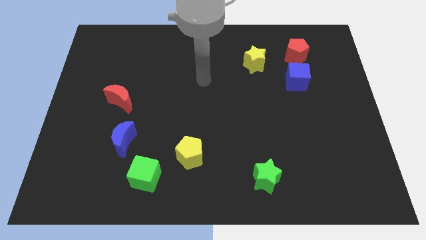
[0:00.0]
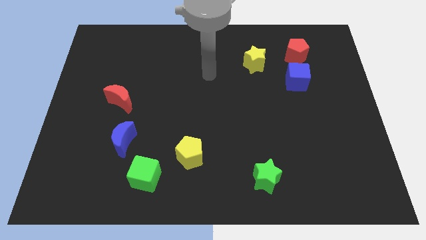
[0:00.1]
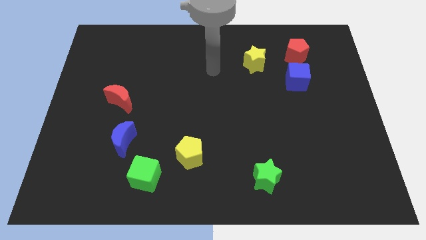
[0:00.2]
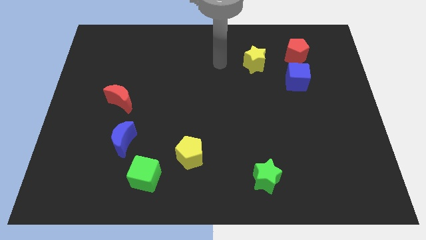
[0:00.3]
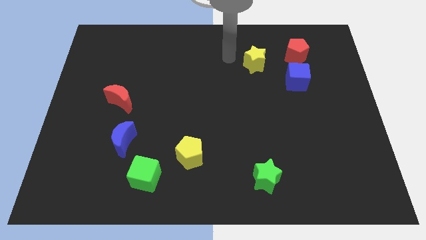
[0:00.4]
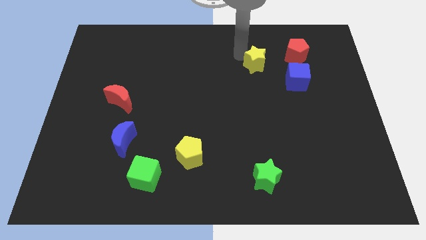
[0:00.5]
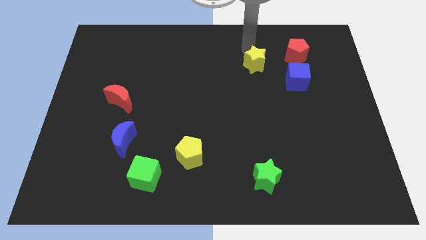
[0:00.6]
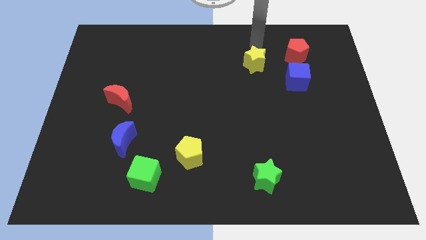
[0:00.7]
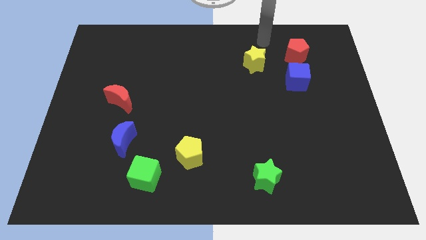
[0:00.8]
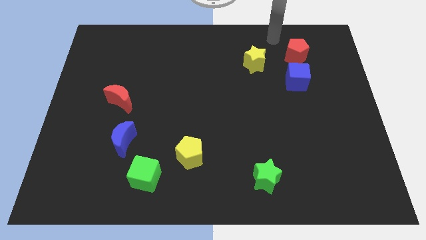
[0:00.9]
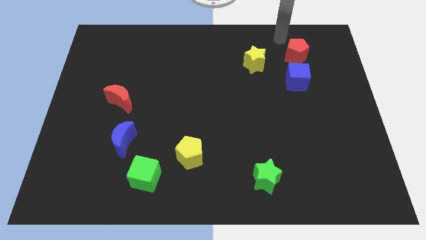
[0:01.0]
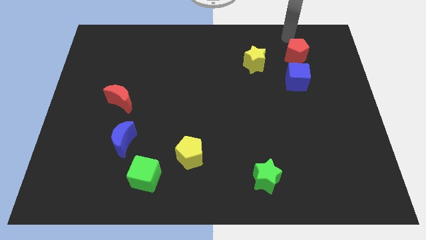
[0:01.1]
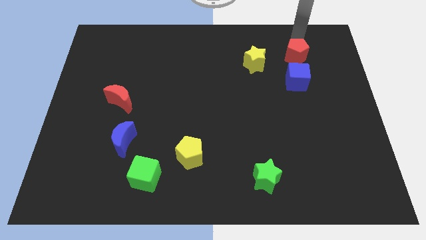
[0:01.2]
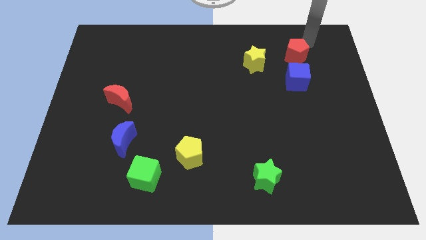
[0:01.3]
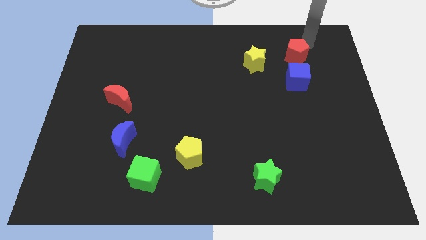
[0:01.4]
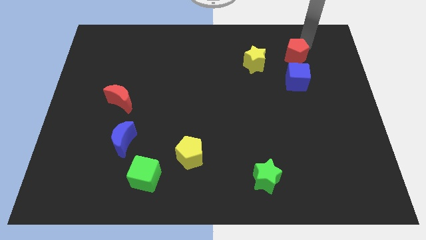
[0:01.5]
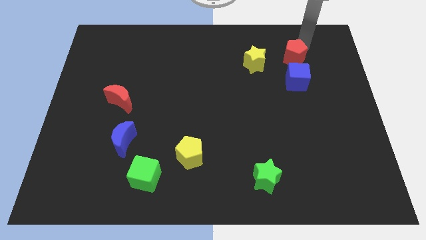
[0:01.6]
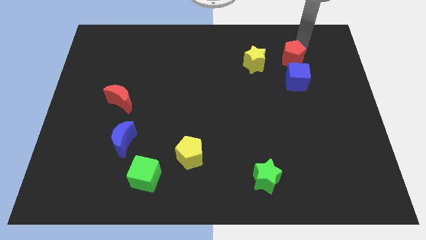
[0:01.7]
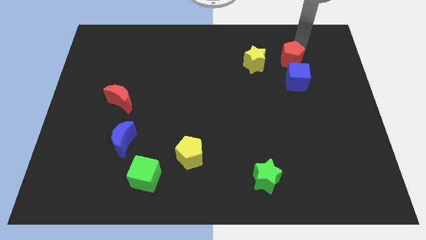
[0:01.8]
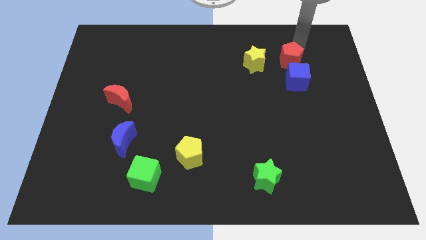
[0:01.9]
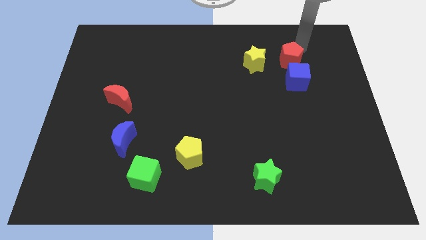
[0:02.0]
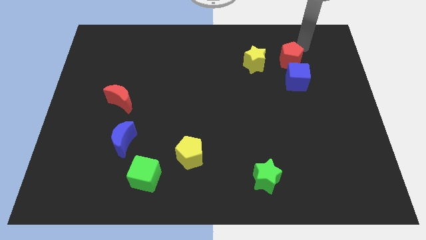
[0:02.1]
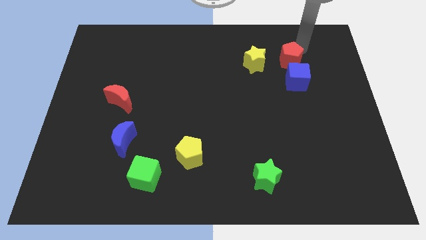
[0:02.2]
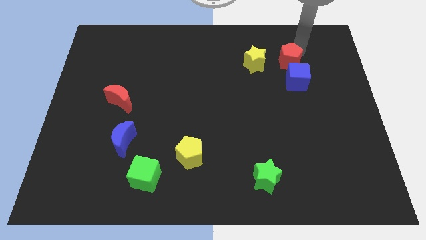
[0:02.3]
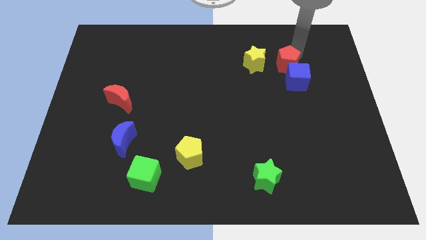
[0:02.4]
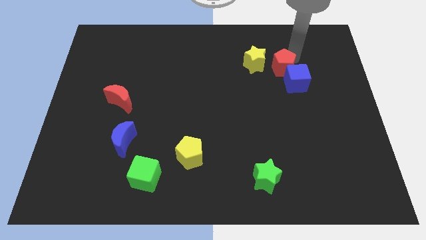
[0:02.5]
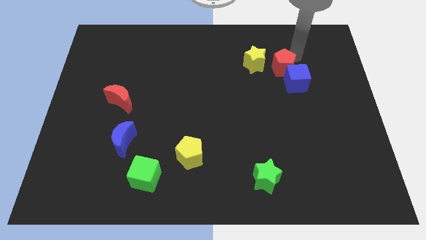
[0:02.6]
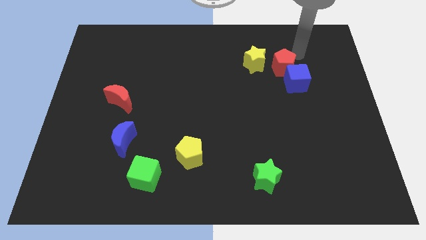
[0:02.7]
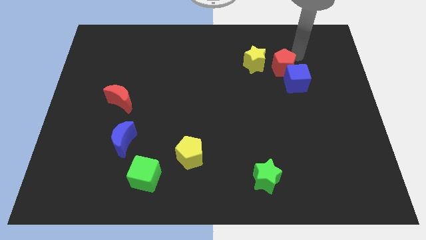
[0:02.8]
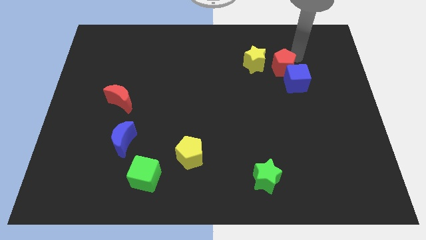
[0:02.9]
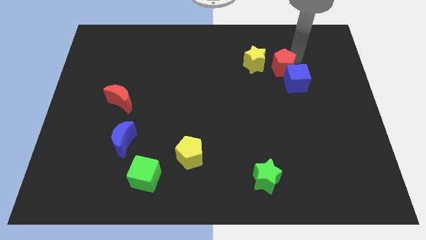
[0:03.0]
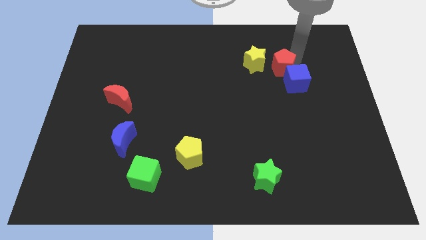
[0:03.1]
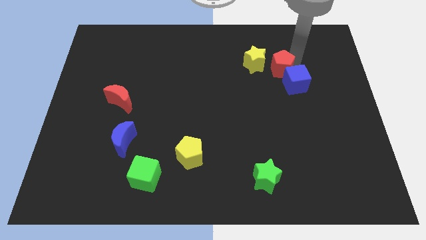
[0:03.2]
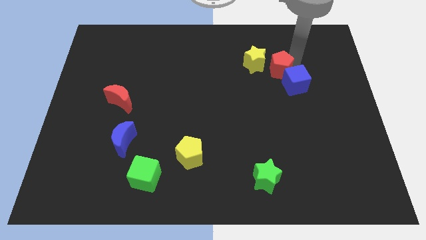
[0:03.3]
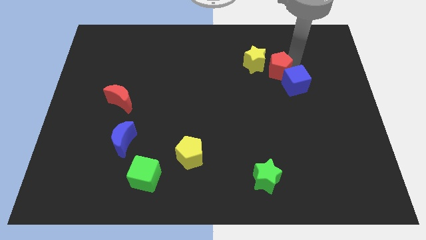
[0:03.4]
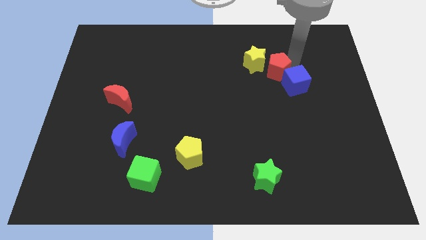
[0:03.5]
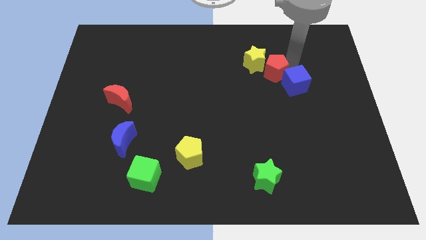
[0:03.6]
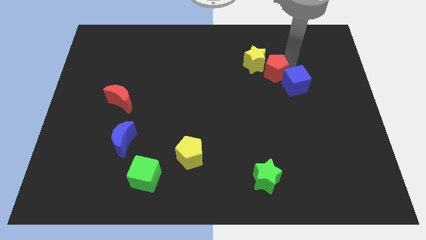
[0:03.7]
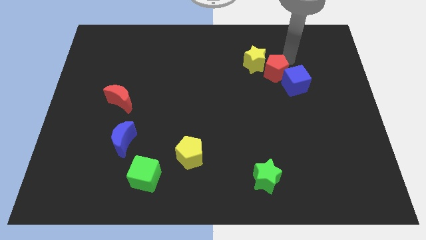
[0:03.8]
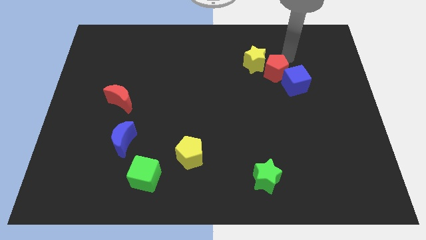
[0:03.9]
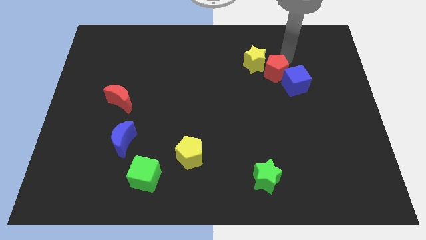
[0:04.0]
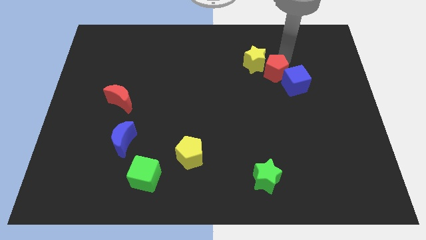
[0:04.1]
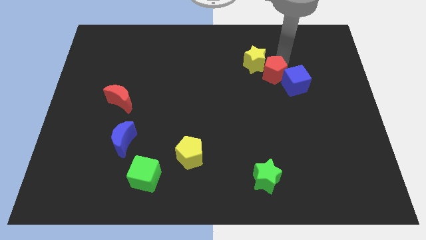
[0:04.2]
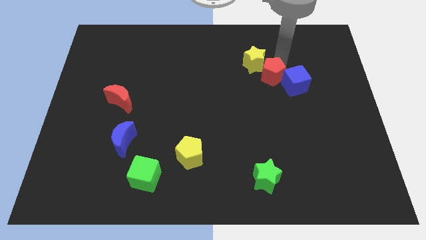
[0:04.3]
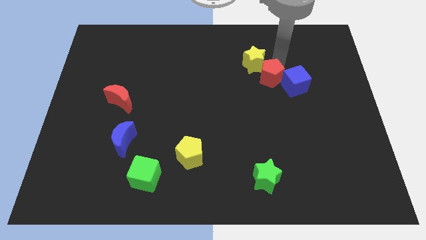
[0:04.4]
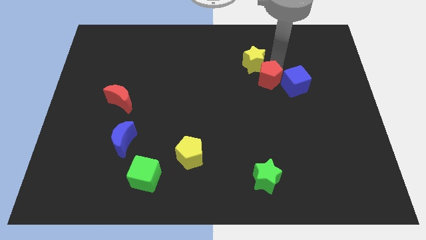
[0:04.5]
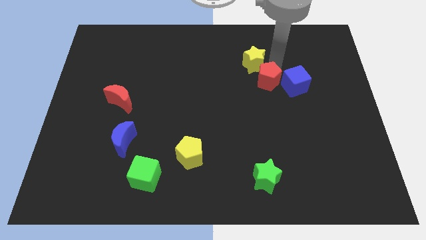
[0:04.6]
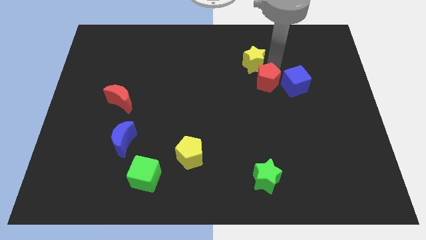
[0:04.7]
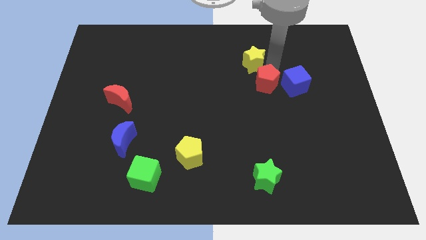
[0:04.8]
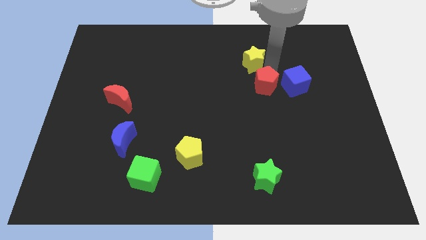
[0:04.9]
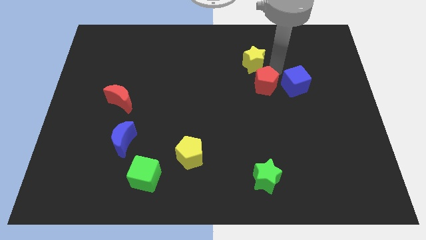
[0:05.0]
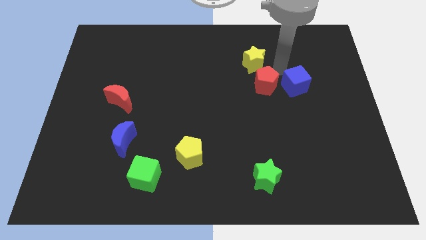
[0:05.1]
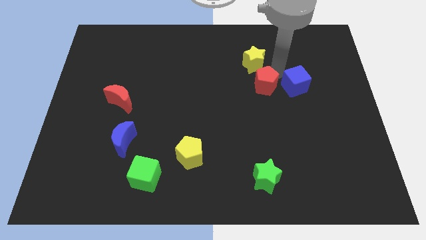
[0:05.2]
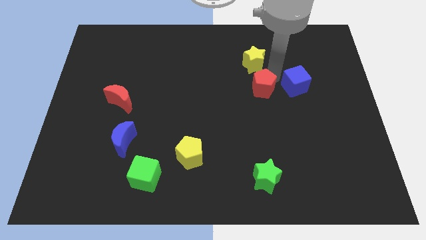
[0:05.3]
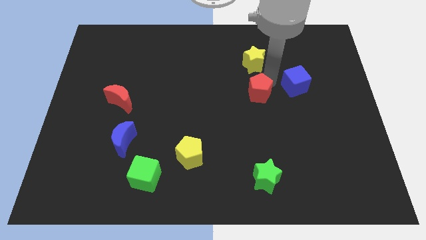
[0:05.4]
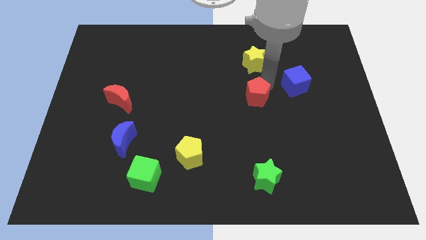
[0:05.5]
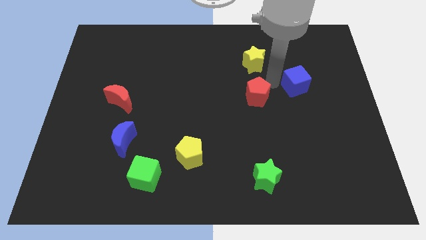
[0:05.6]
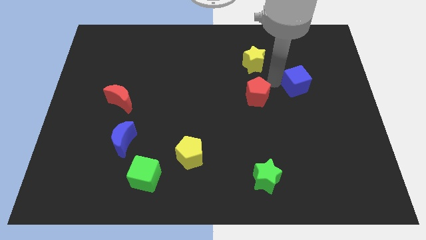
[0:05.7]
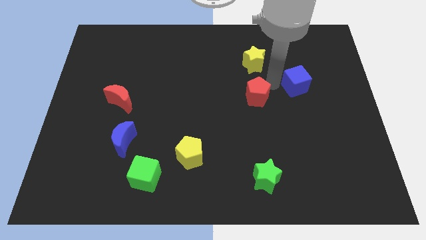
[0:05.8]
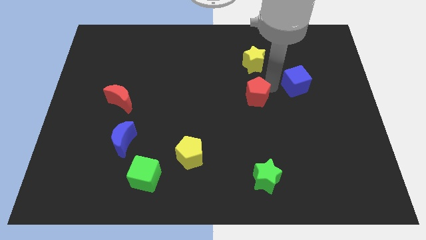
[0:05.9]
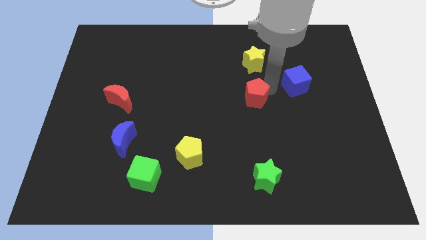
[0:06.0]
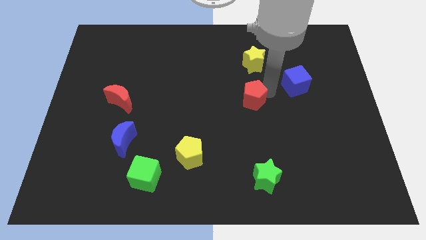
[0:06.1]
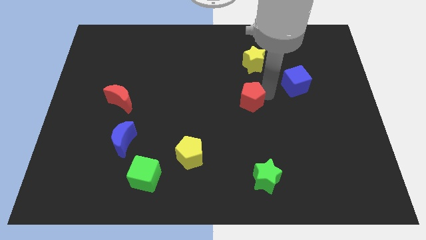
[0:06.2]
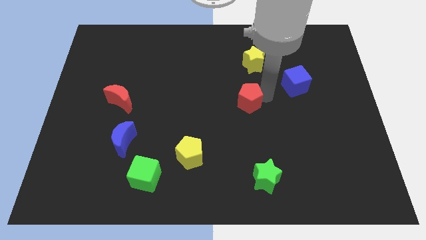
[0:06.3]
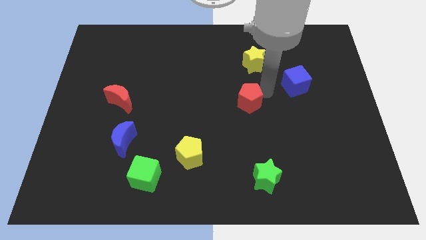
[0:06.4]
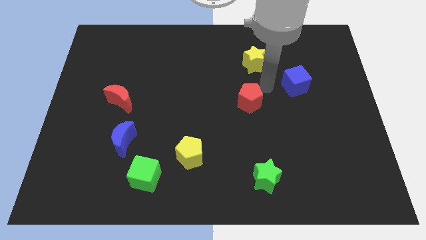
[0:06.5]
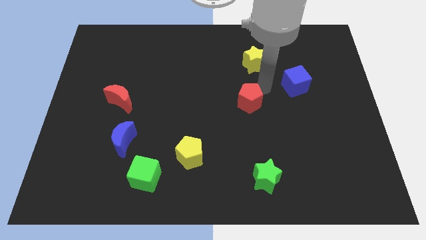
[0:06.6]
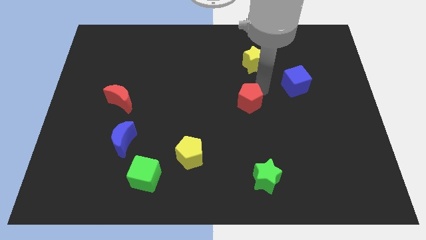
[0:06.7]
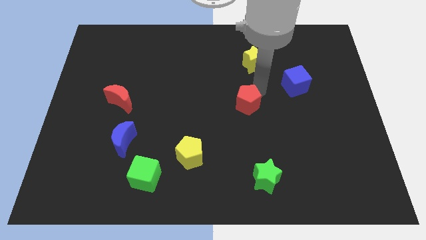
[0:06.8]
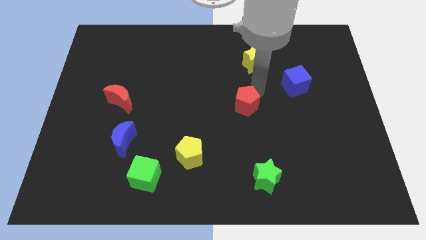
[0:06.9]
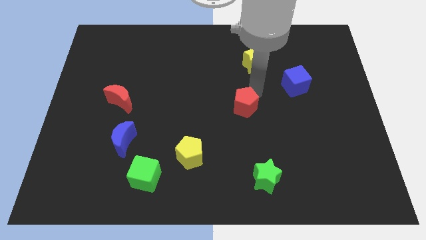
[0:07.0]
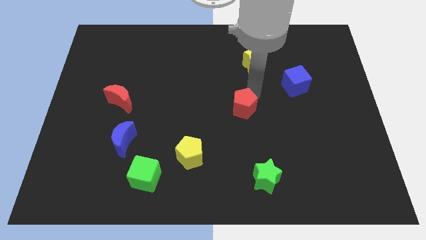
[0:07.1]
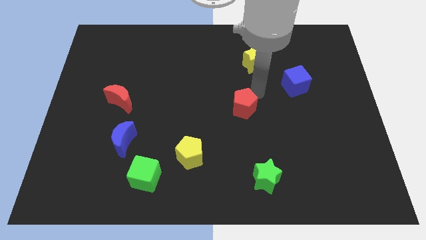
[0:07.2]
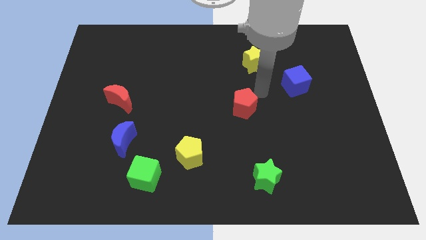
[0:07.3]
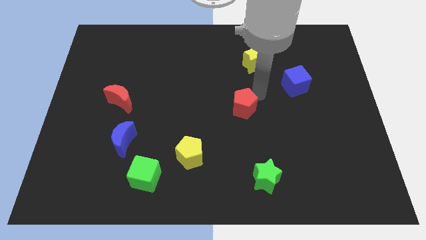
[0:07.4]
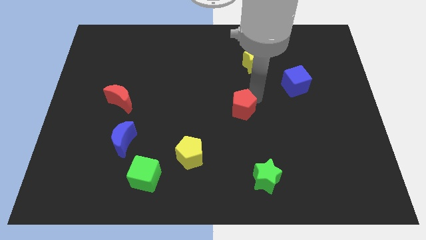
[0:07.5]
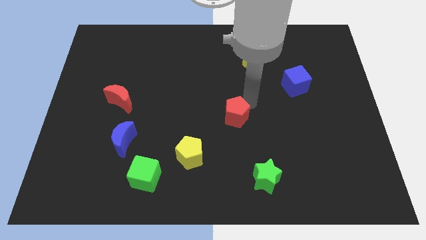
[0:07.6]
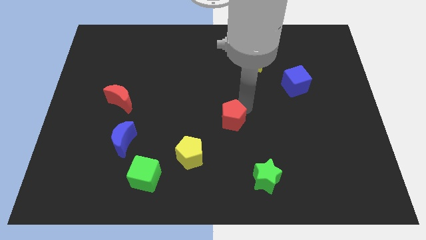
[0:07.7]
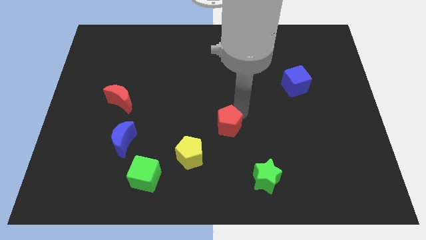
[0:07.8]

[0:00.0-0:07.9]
push the red pentagon to the top right side of the yellow pentagon
